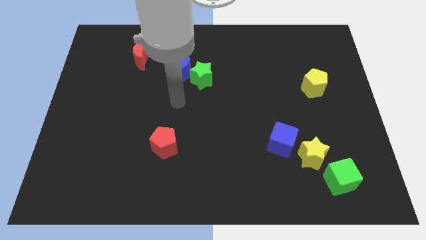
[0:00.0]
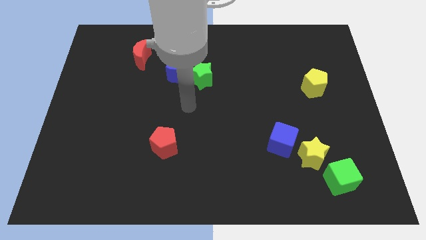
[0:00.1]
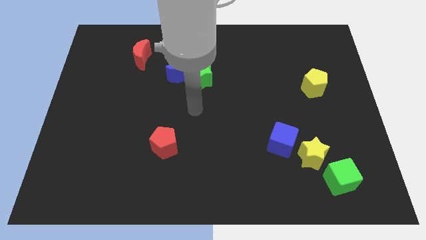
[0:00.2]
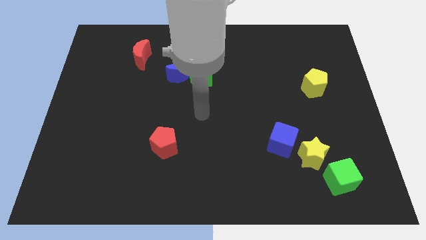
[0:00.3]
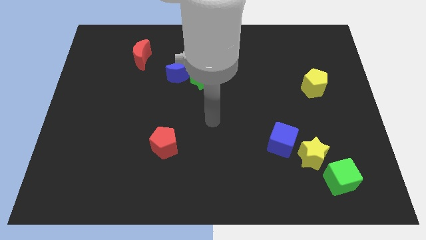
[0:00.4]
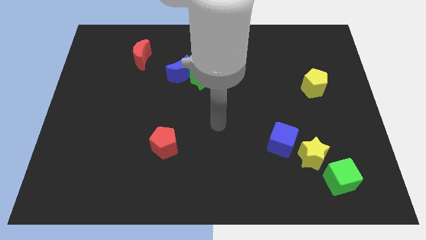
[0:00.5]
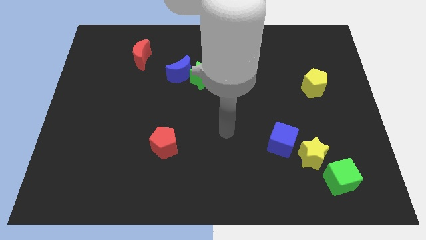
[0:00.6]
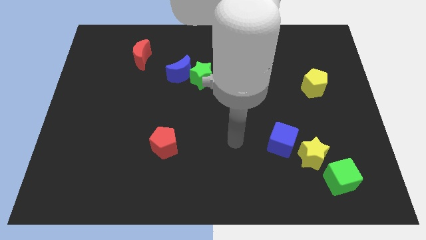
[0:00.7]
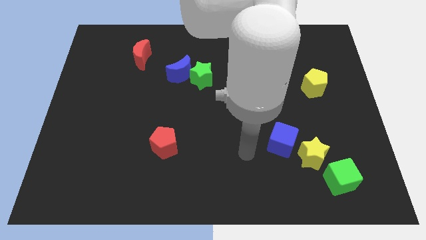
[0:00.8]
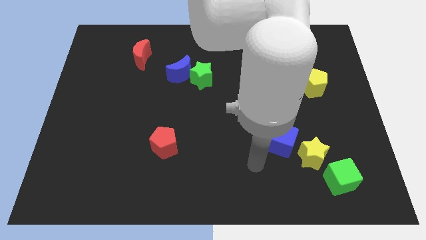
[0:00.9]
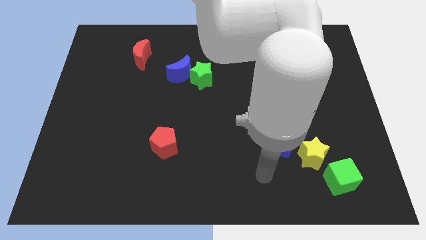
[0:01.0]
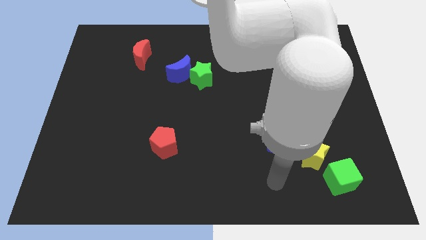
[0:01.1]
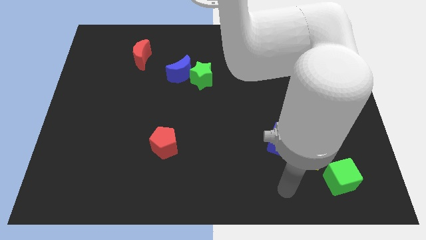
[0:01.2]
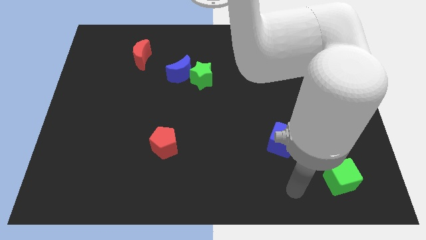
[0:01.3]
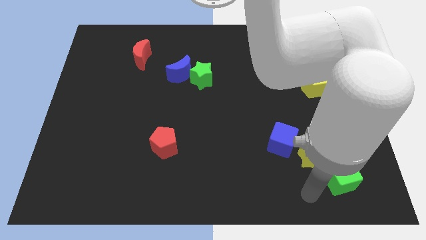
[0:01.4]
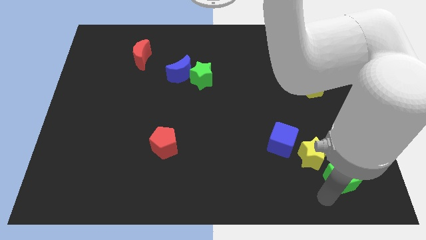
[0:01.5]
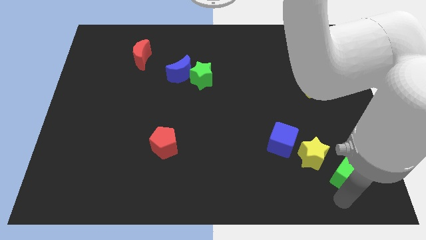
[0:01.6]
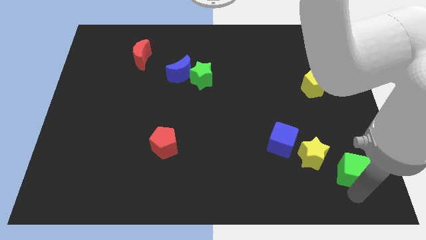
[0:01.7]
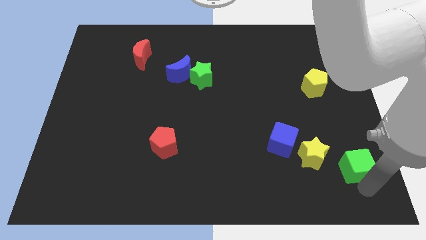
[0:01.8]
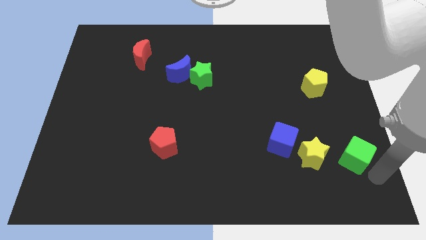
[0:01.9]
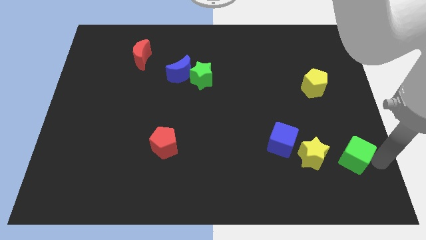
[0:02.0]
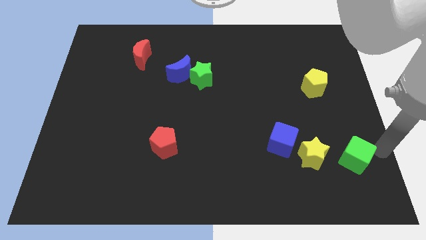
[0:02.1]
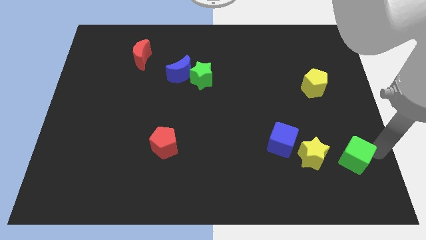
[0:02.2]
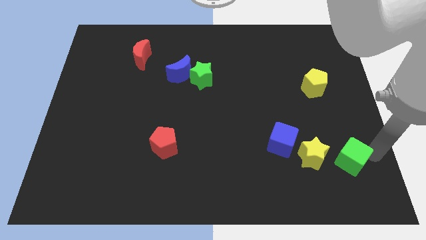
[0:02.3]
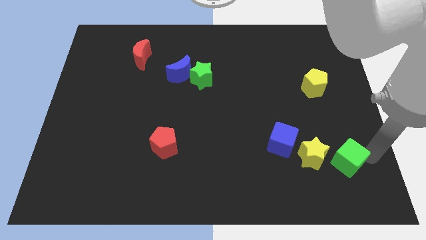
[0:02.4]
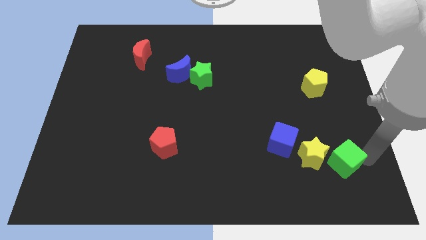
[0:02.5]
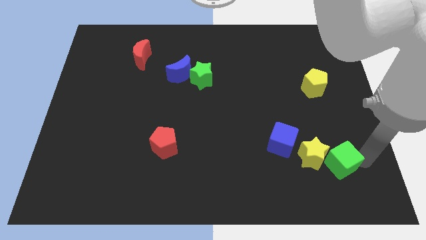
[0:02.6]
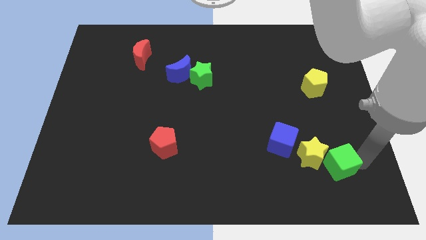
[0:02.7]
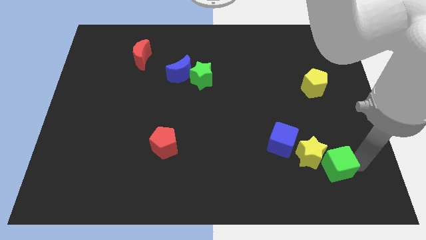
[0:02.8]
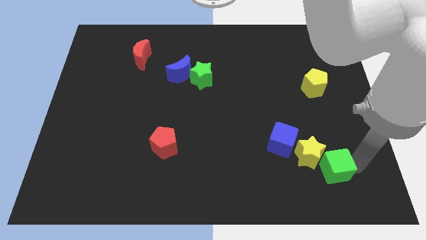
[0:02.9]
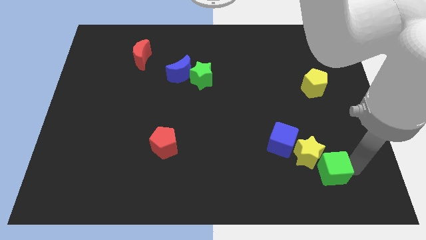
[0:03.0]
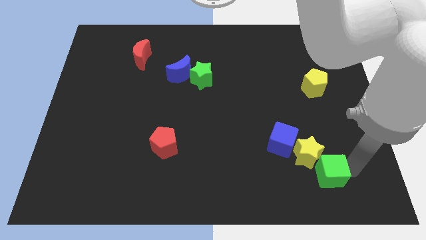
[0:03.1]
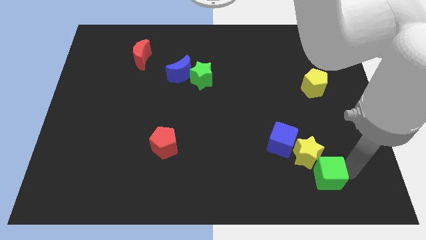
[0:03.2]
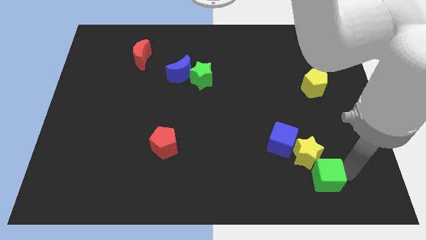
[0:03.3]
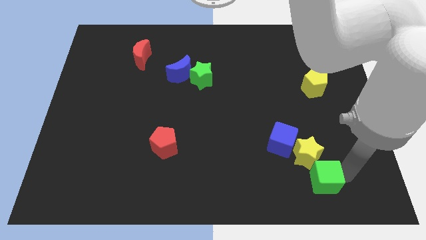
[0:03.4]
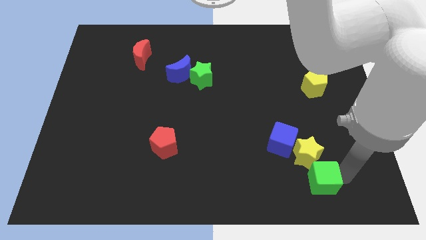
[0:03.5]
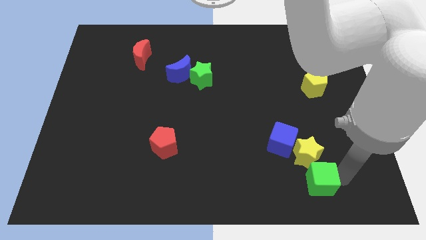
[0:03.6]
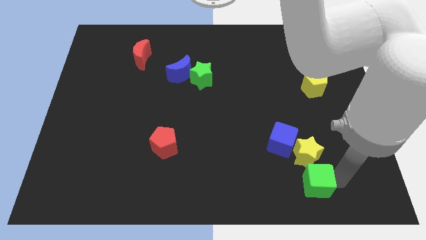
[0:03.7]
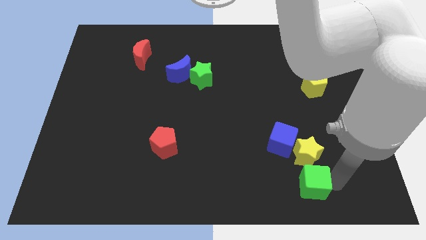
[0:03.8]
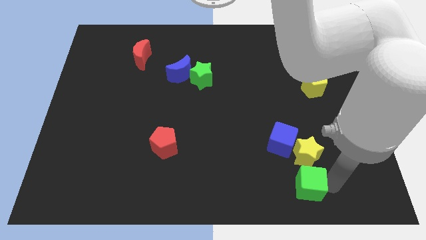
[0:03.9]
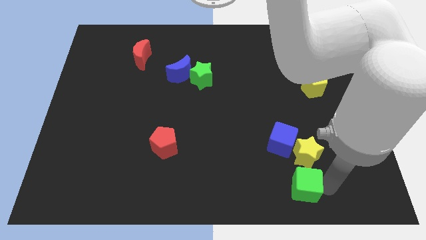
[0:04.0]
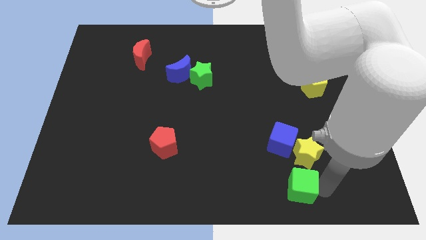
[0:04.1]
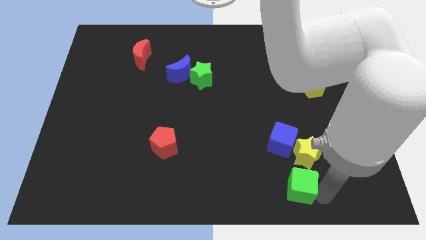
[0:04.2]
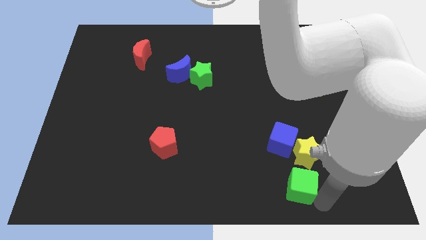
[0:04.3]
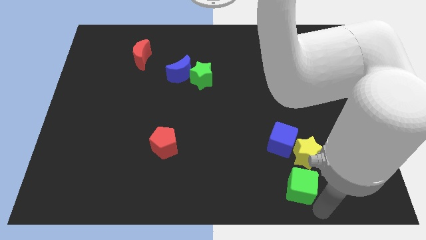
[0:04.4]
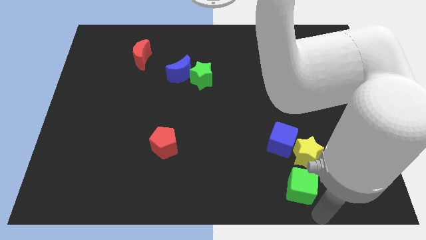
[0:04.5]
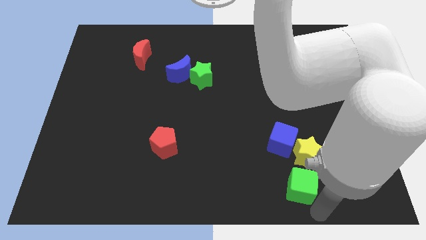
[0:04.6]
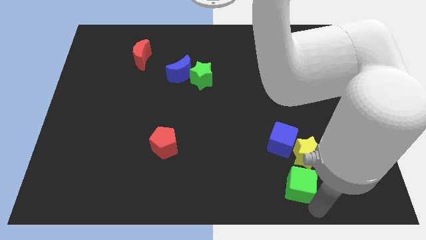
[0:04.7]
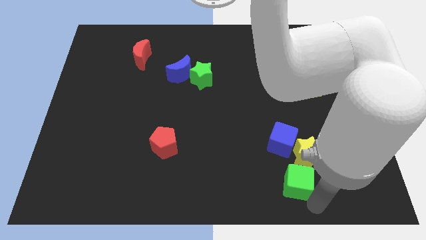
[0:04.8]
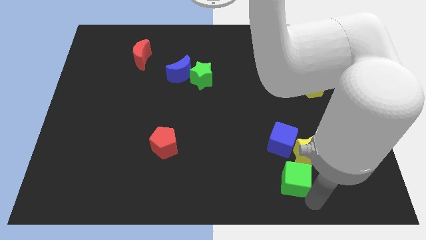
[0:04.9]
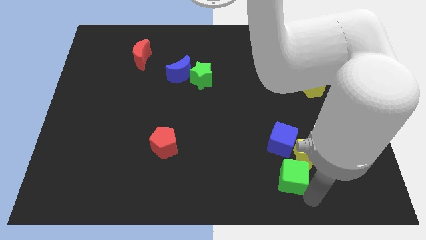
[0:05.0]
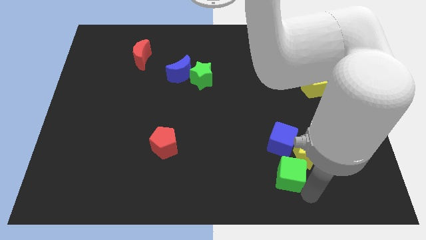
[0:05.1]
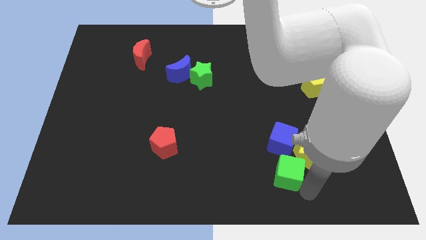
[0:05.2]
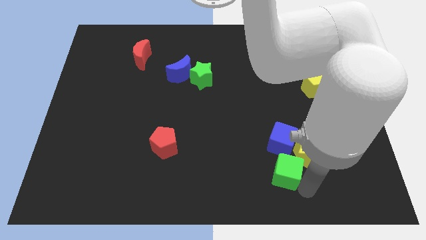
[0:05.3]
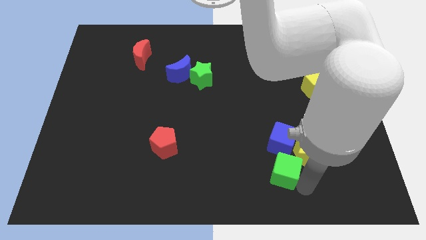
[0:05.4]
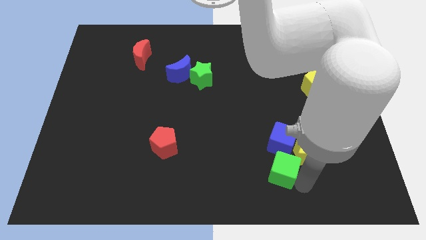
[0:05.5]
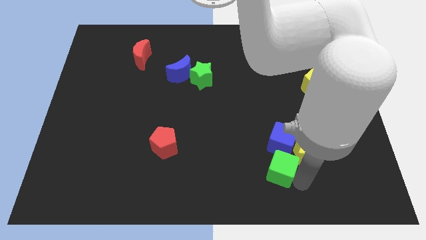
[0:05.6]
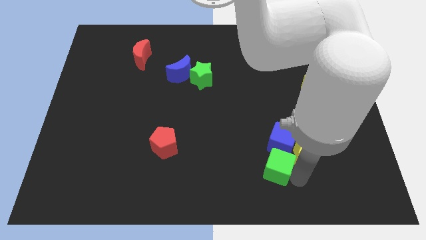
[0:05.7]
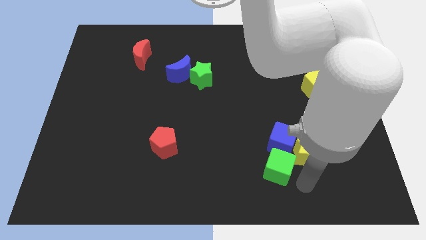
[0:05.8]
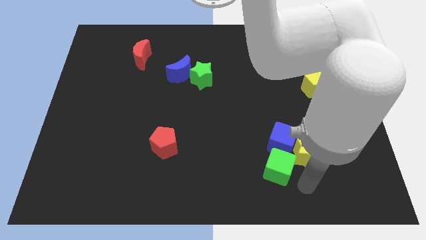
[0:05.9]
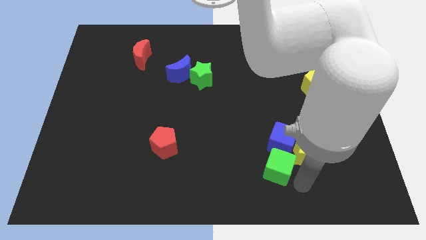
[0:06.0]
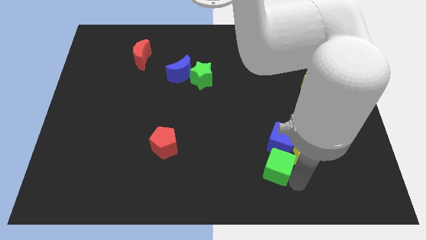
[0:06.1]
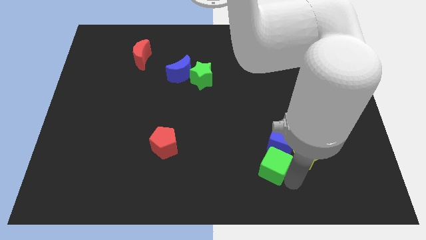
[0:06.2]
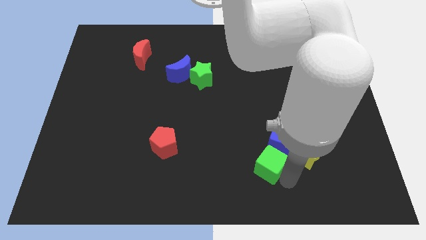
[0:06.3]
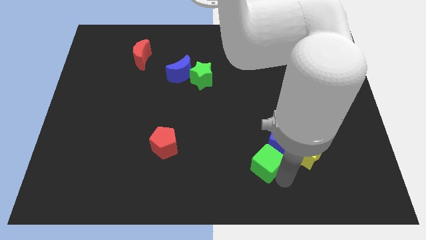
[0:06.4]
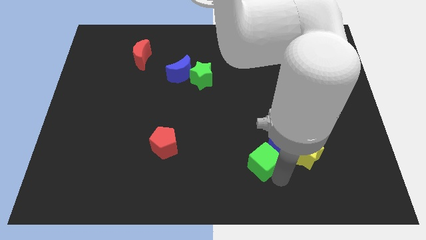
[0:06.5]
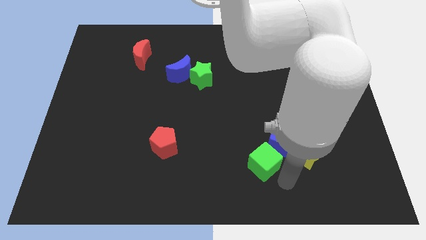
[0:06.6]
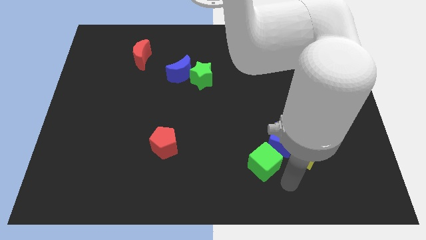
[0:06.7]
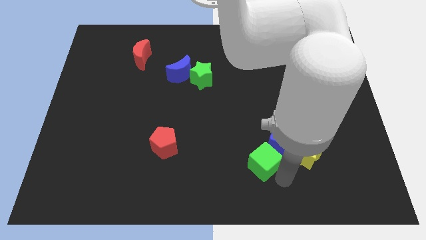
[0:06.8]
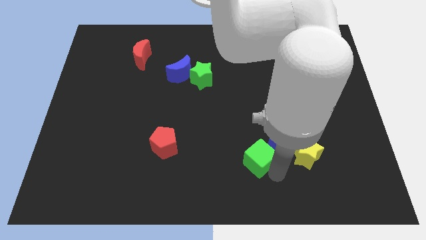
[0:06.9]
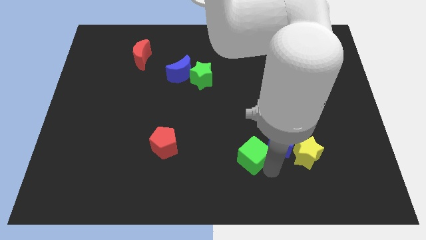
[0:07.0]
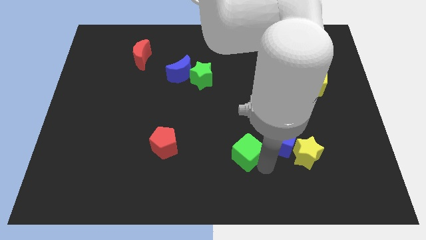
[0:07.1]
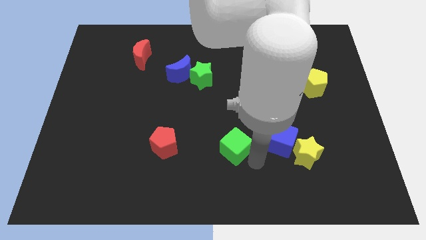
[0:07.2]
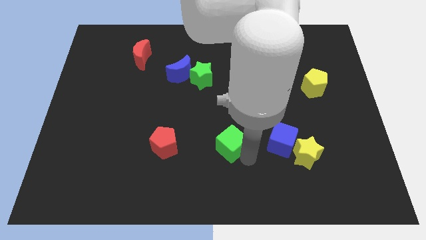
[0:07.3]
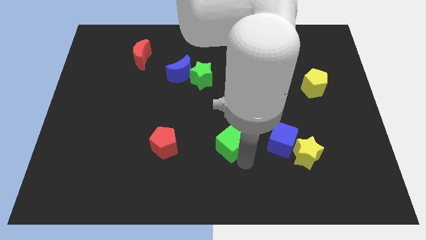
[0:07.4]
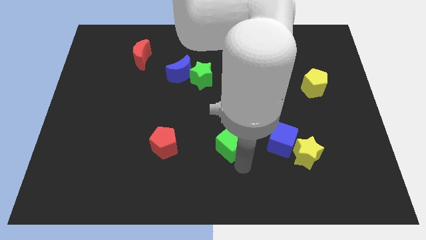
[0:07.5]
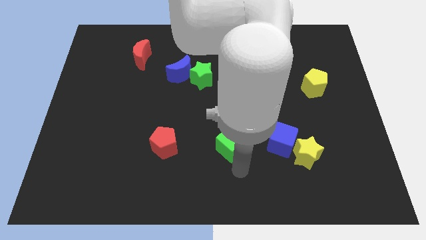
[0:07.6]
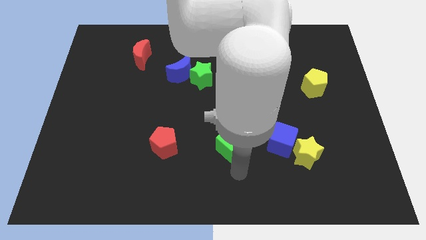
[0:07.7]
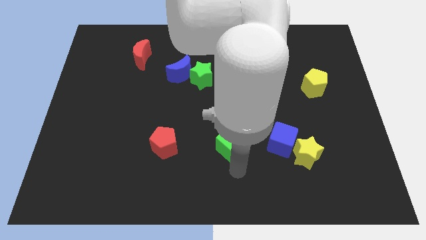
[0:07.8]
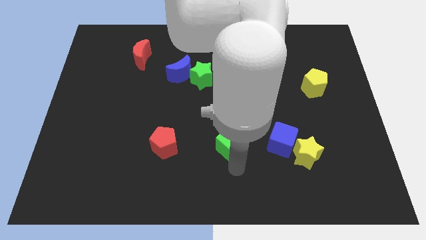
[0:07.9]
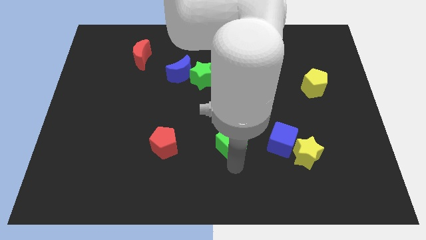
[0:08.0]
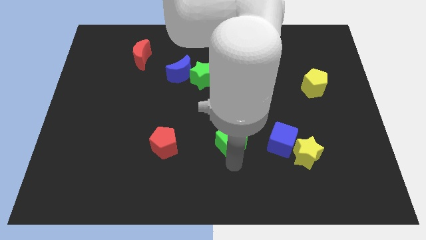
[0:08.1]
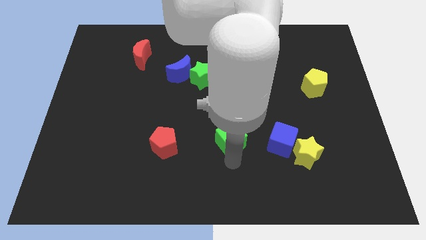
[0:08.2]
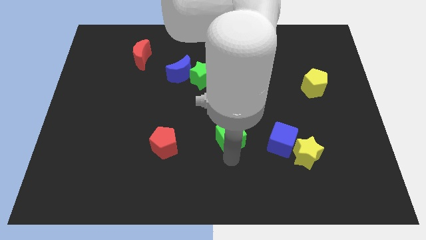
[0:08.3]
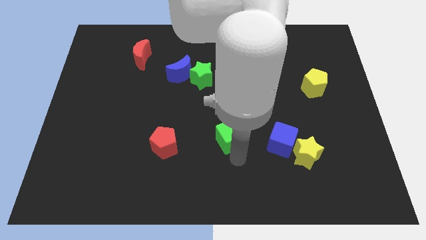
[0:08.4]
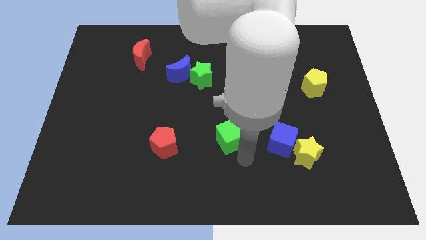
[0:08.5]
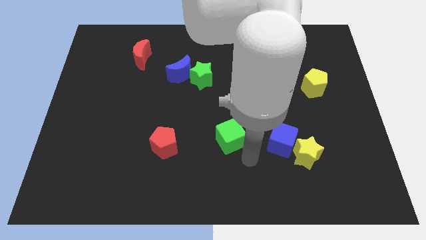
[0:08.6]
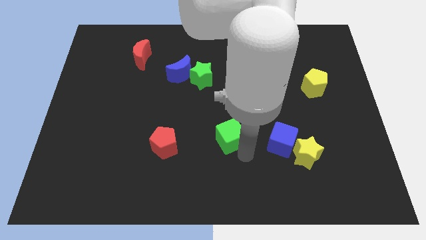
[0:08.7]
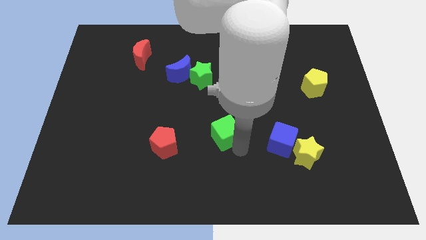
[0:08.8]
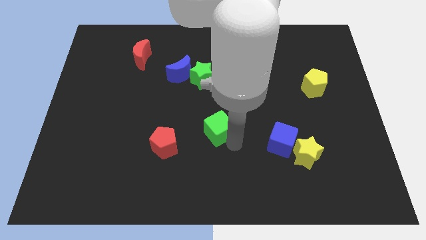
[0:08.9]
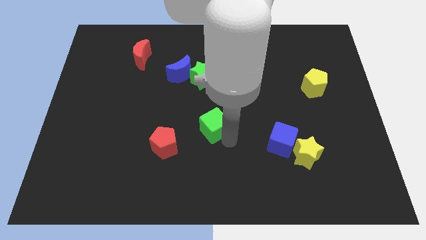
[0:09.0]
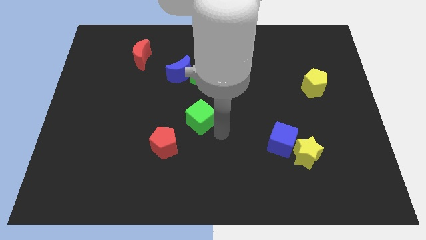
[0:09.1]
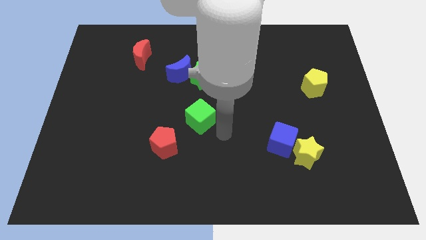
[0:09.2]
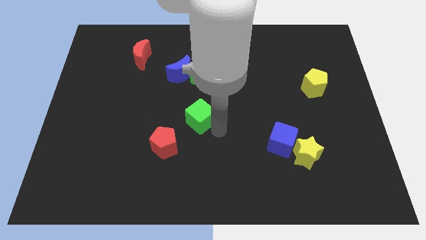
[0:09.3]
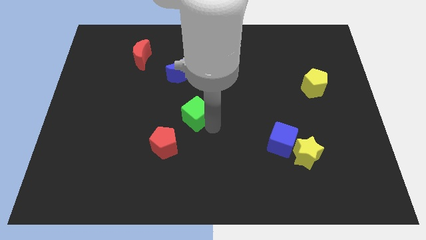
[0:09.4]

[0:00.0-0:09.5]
put the green cube to the bottom of the blue moon
